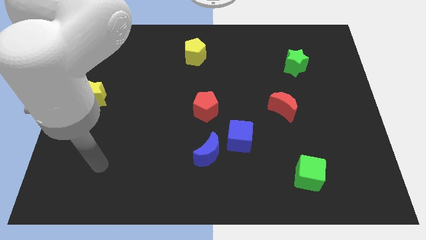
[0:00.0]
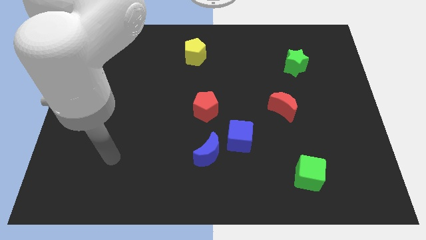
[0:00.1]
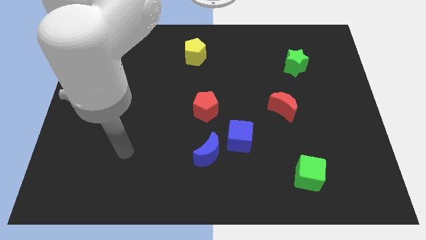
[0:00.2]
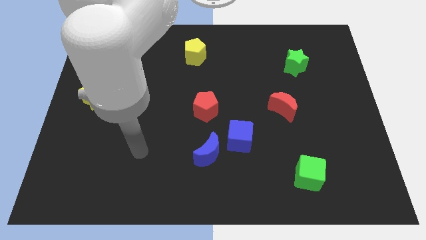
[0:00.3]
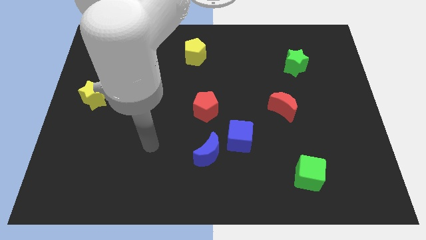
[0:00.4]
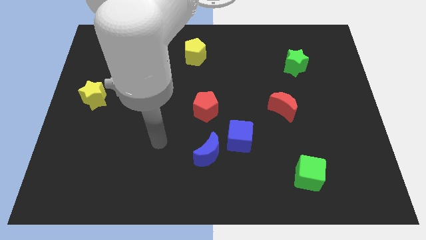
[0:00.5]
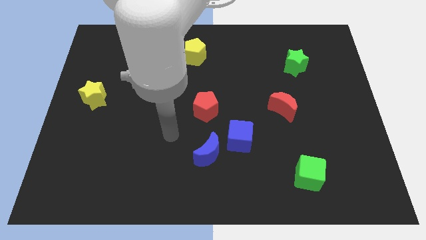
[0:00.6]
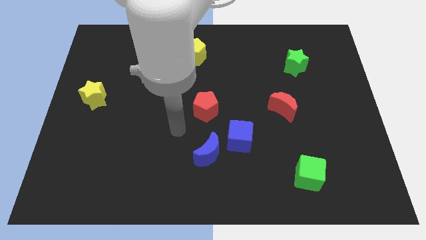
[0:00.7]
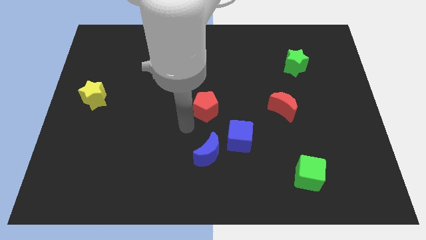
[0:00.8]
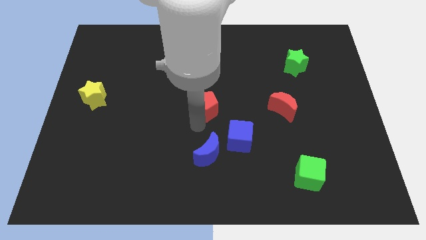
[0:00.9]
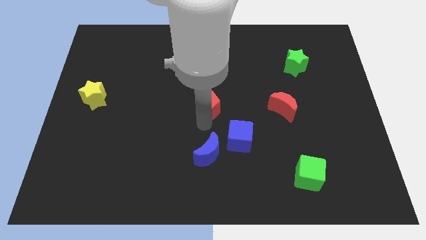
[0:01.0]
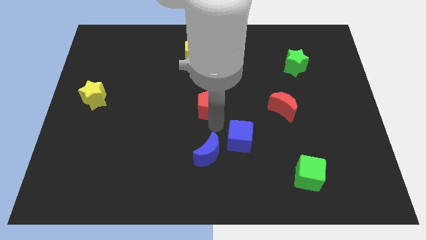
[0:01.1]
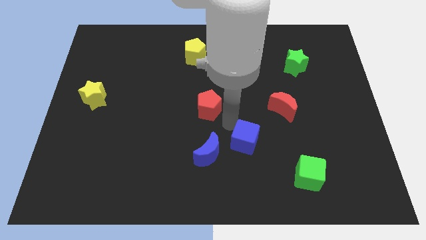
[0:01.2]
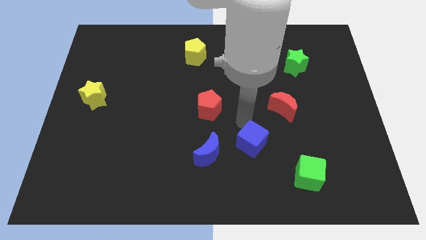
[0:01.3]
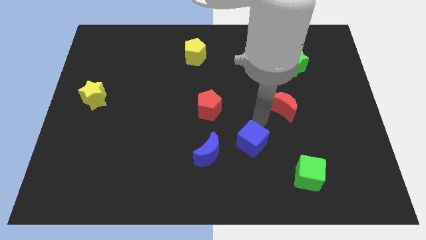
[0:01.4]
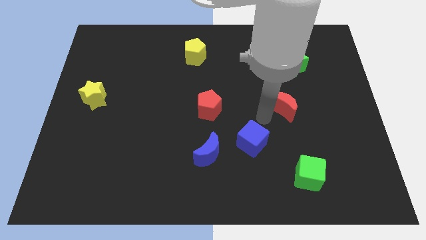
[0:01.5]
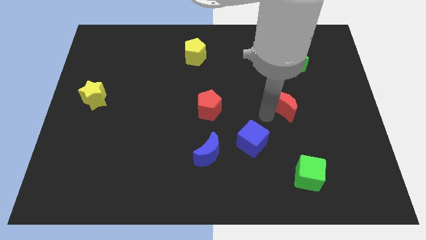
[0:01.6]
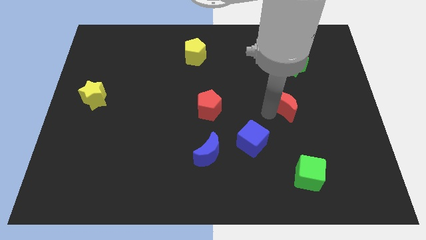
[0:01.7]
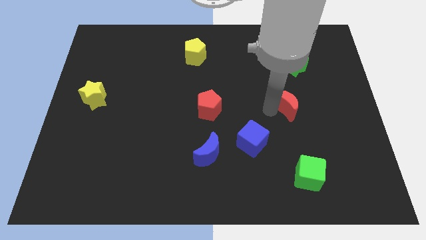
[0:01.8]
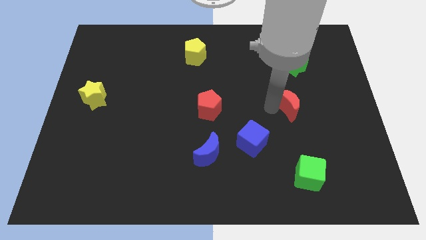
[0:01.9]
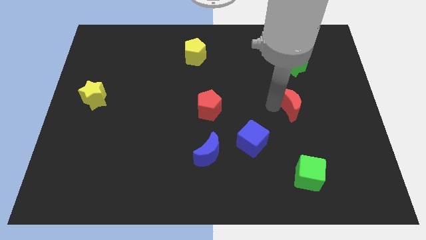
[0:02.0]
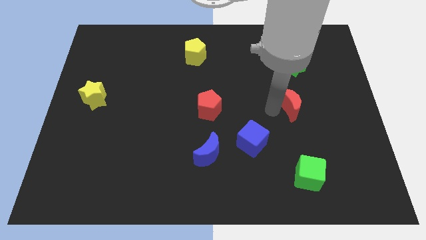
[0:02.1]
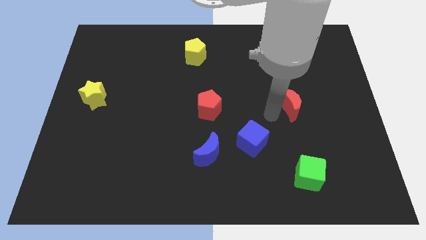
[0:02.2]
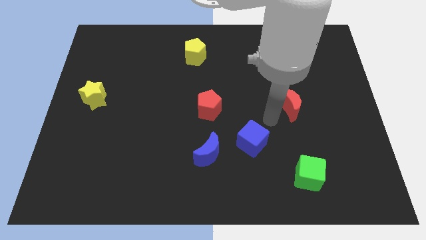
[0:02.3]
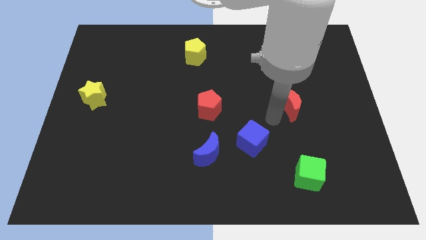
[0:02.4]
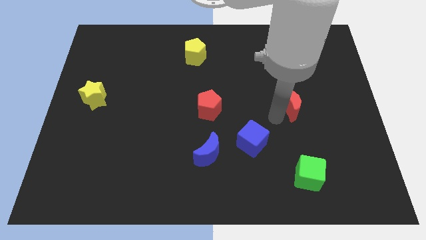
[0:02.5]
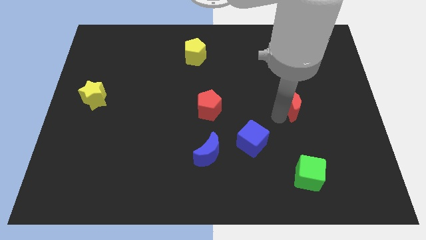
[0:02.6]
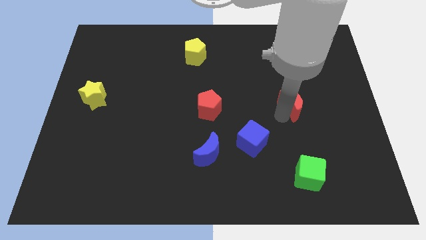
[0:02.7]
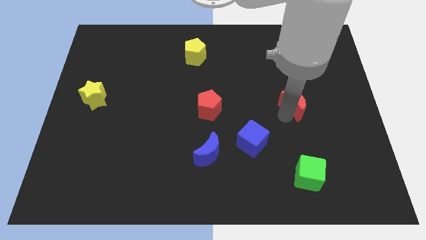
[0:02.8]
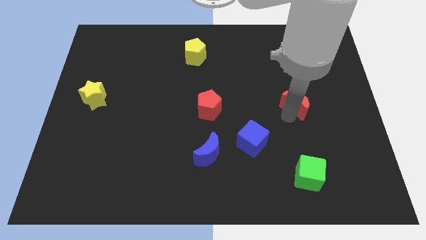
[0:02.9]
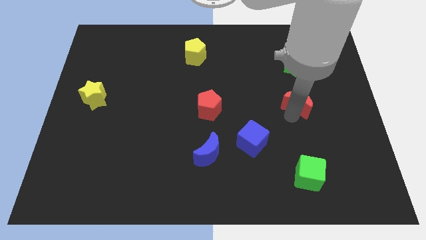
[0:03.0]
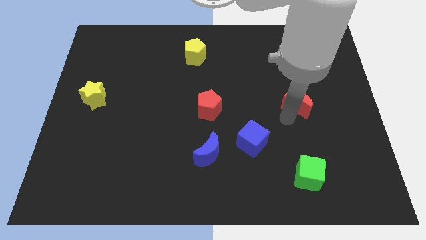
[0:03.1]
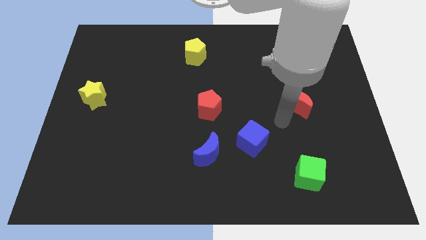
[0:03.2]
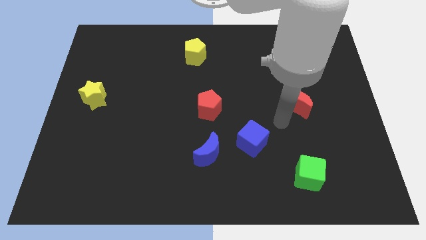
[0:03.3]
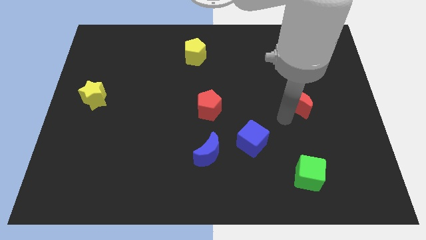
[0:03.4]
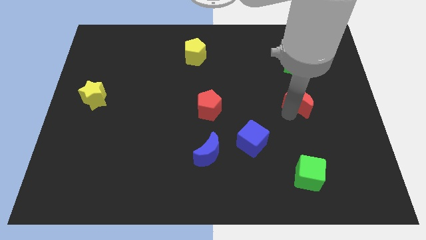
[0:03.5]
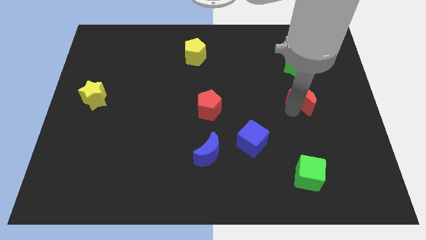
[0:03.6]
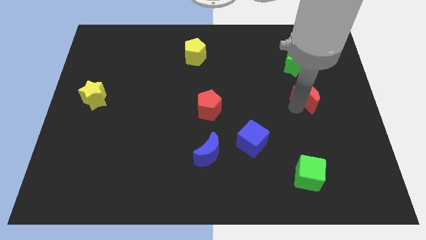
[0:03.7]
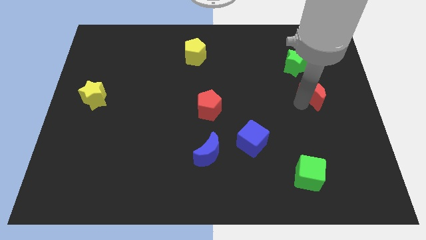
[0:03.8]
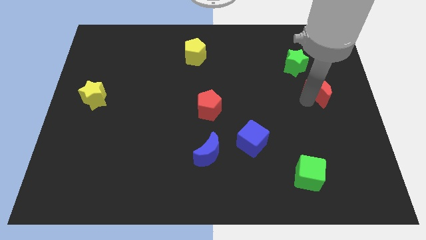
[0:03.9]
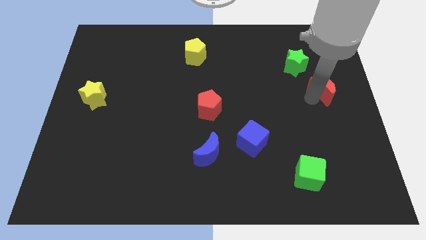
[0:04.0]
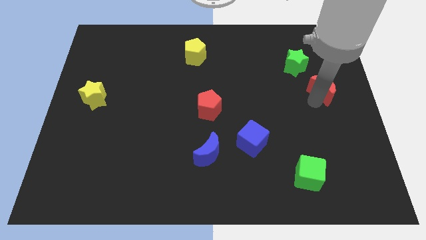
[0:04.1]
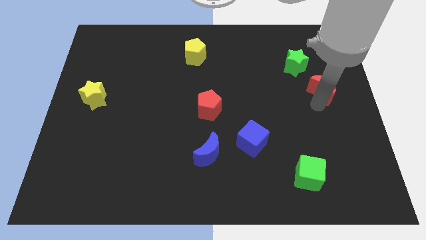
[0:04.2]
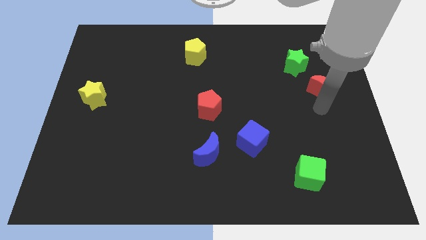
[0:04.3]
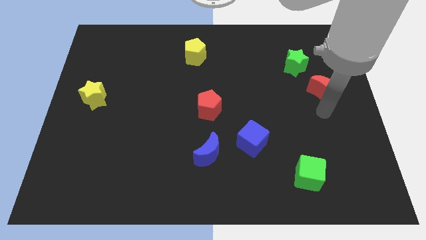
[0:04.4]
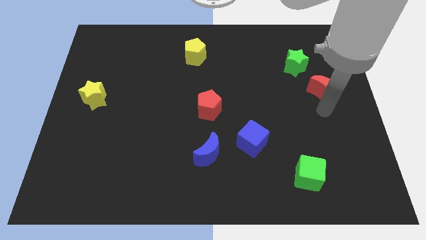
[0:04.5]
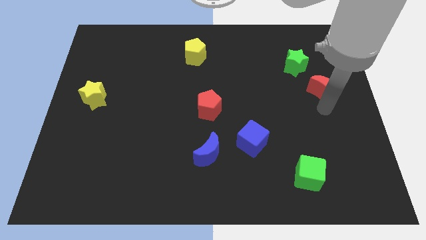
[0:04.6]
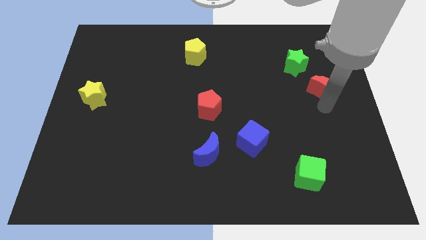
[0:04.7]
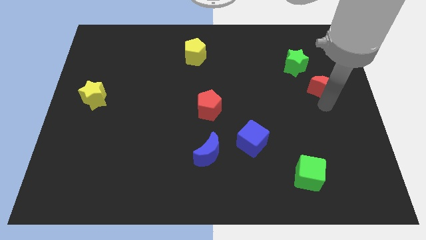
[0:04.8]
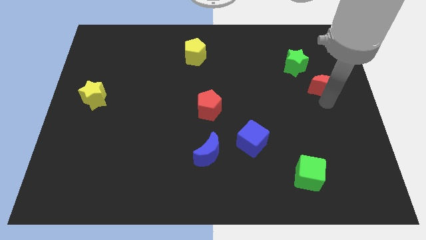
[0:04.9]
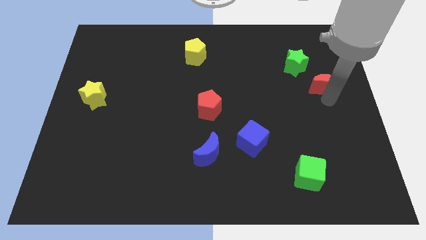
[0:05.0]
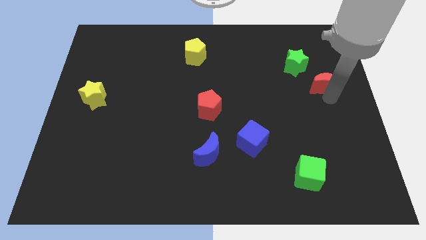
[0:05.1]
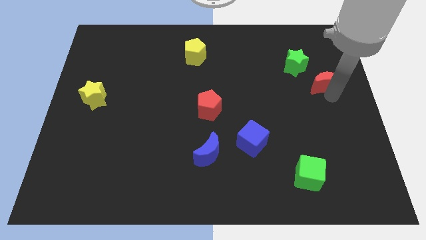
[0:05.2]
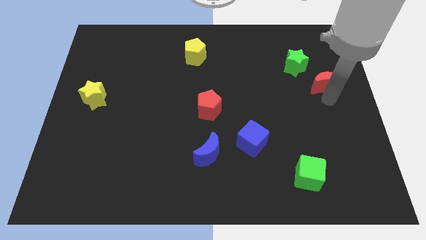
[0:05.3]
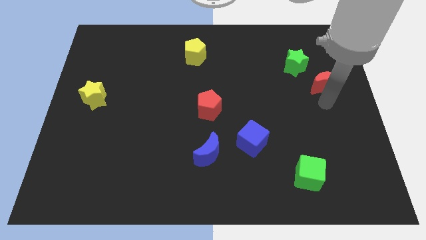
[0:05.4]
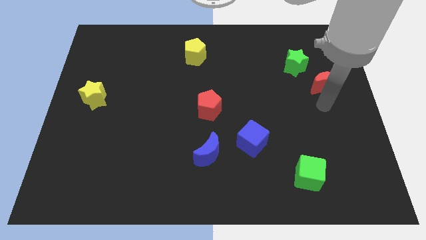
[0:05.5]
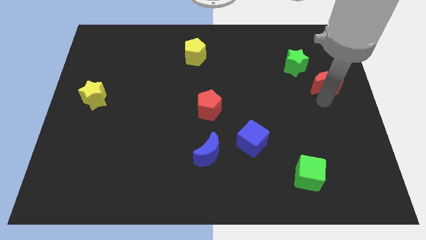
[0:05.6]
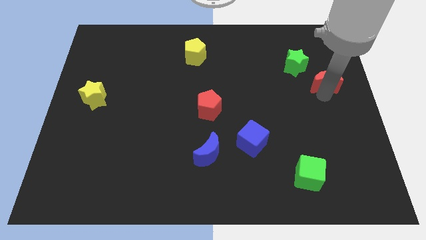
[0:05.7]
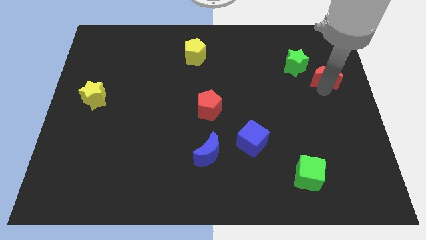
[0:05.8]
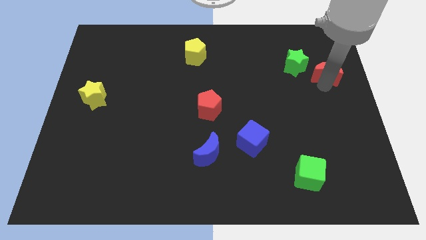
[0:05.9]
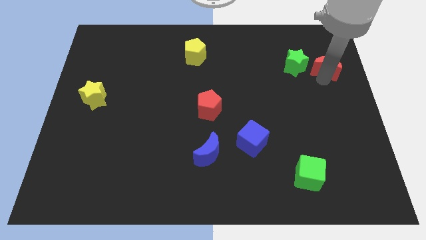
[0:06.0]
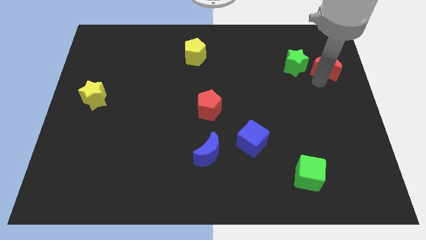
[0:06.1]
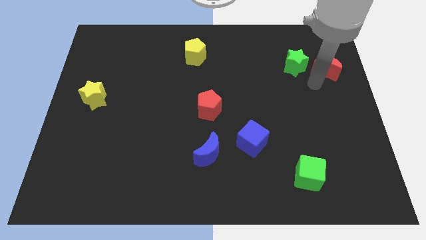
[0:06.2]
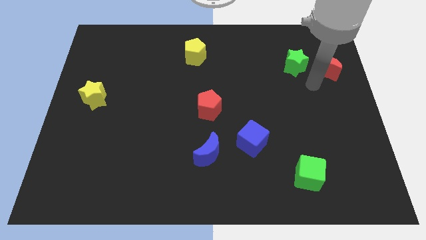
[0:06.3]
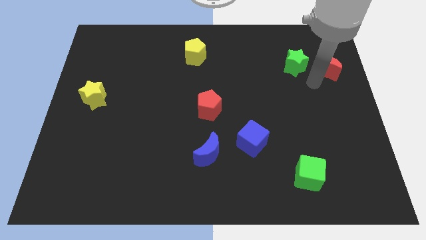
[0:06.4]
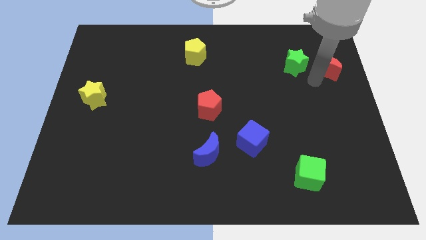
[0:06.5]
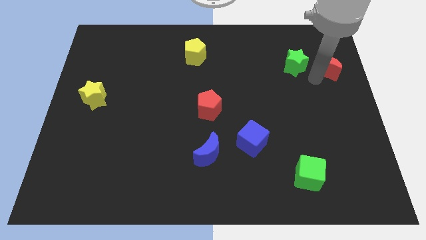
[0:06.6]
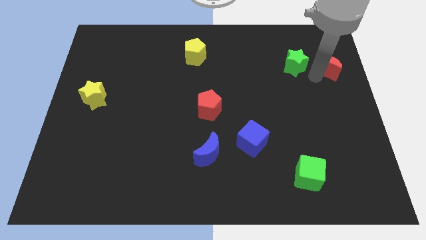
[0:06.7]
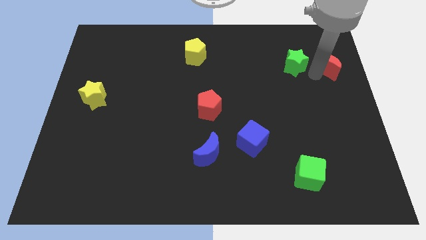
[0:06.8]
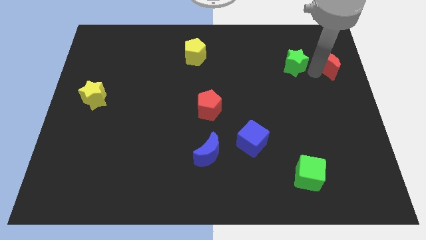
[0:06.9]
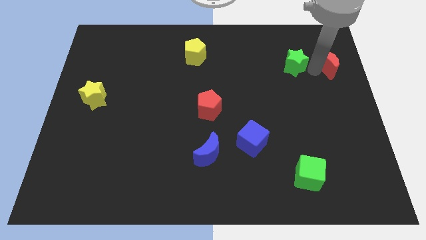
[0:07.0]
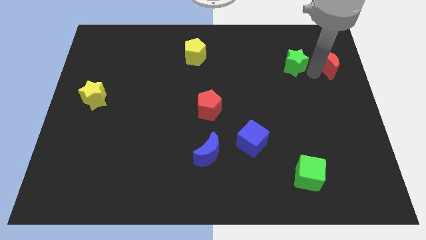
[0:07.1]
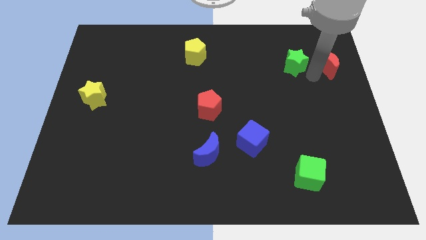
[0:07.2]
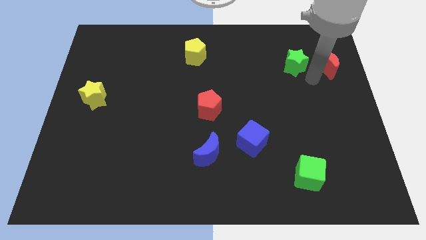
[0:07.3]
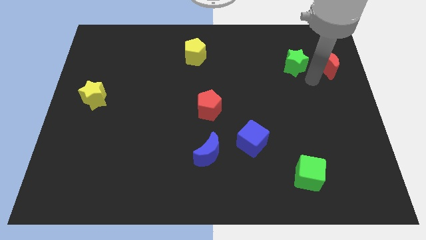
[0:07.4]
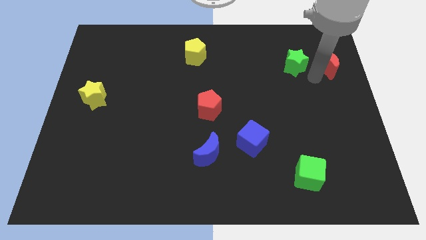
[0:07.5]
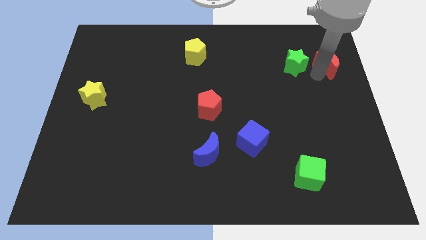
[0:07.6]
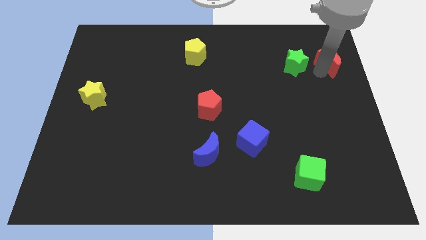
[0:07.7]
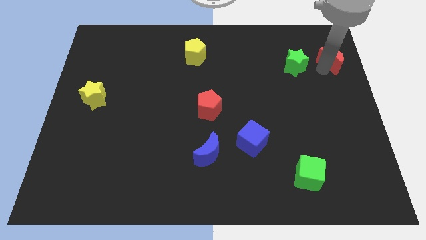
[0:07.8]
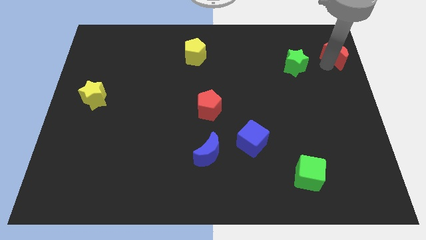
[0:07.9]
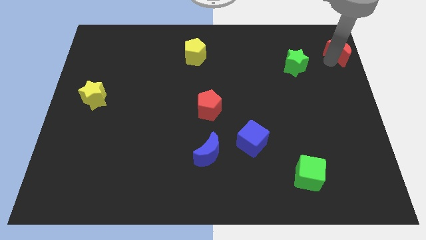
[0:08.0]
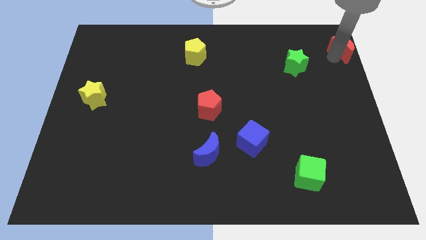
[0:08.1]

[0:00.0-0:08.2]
slide the red moon to the top right corner
